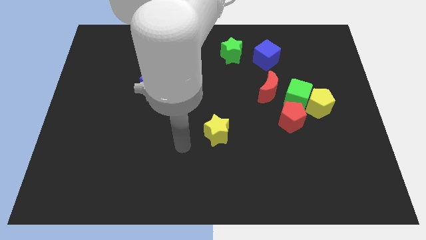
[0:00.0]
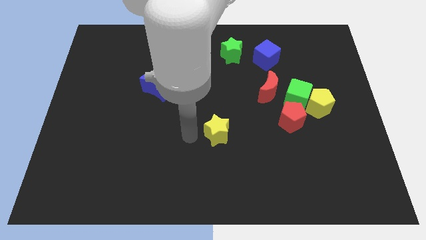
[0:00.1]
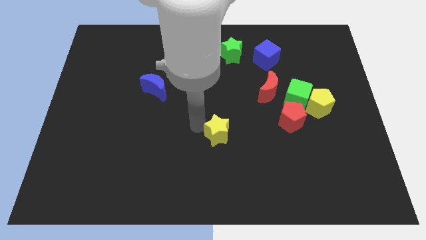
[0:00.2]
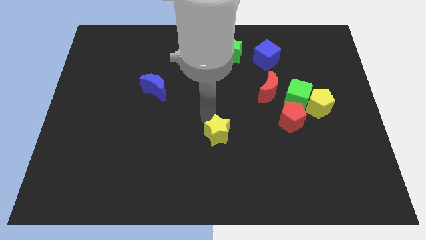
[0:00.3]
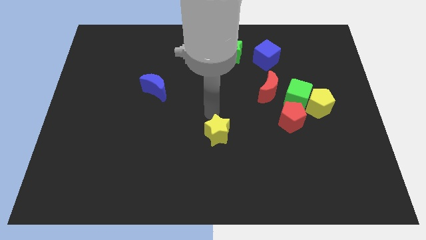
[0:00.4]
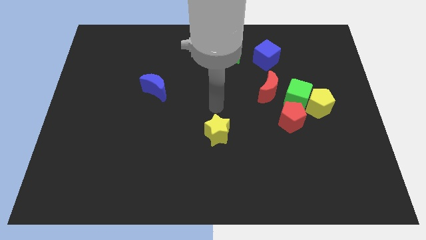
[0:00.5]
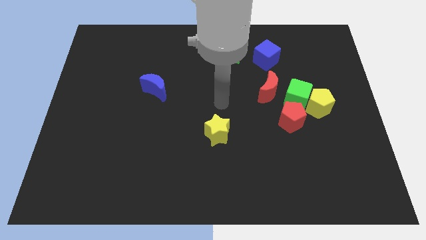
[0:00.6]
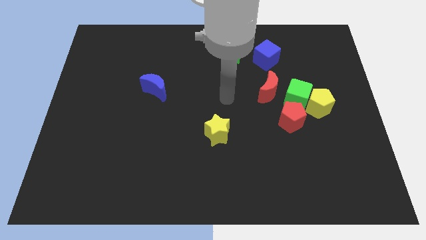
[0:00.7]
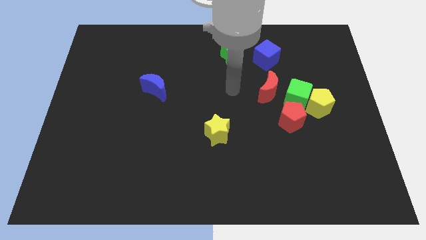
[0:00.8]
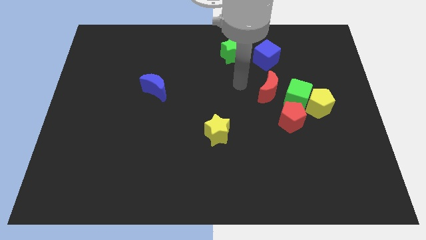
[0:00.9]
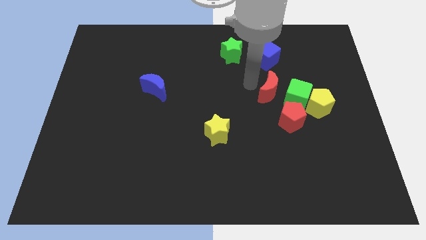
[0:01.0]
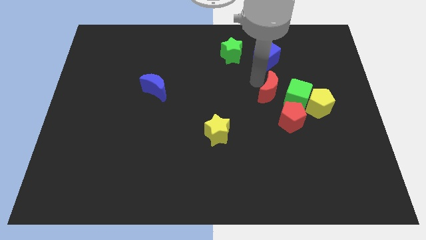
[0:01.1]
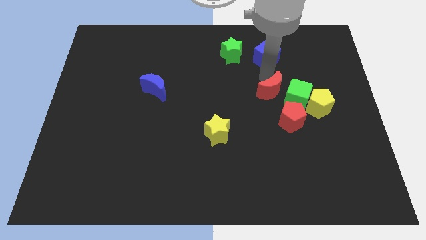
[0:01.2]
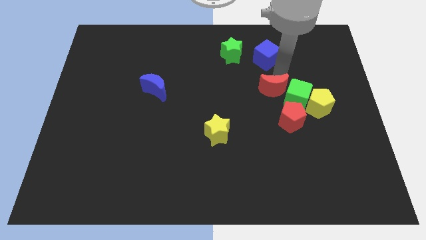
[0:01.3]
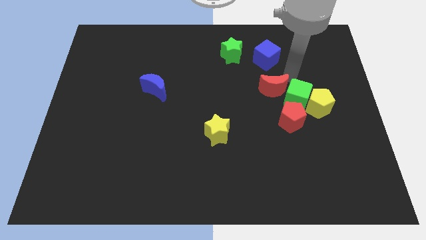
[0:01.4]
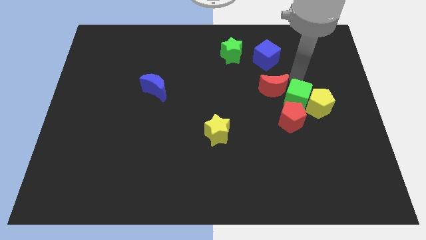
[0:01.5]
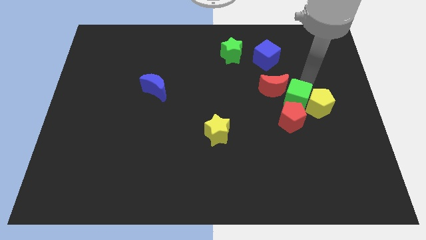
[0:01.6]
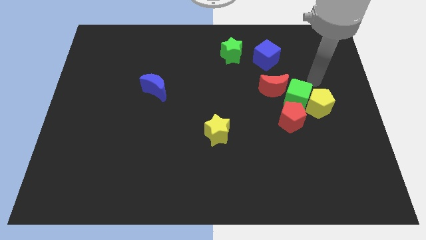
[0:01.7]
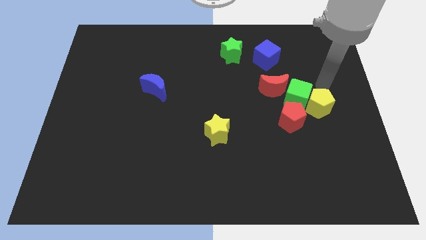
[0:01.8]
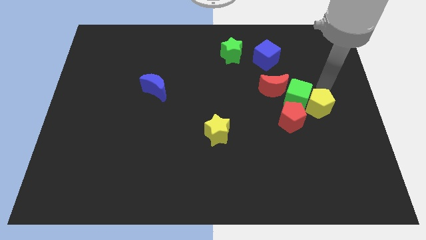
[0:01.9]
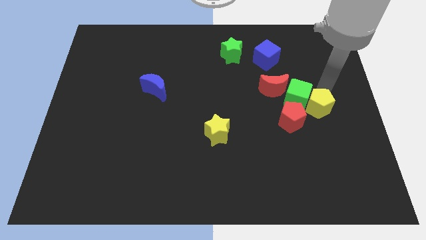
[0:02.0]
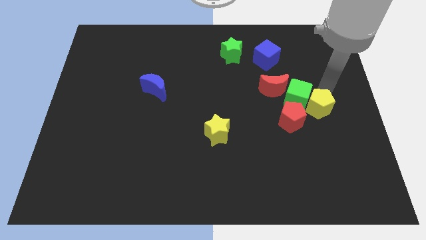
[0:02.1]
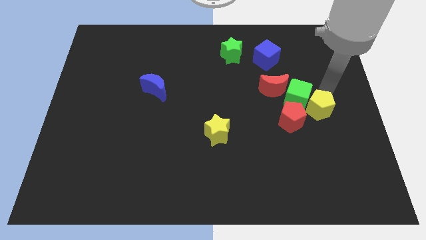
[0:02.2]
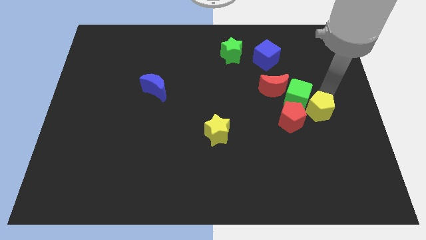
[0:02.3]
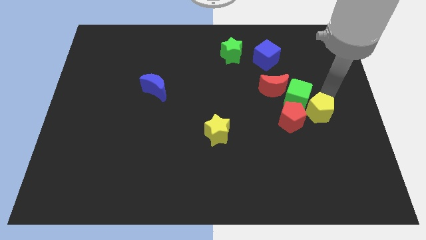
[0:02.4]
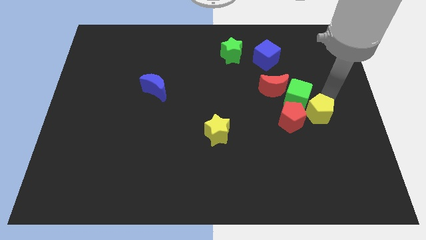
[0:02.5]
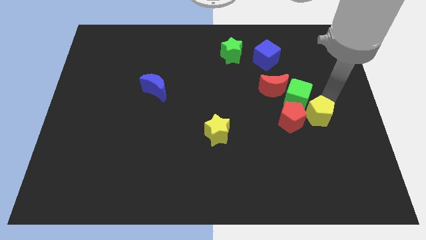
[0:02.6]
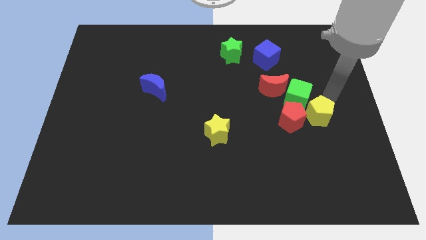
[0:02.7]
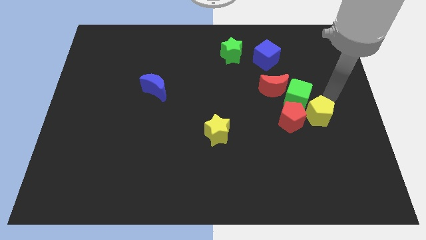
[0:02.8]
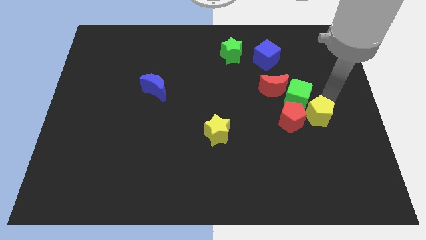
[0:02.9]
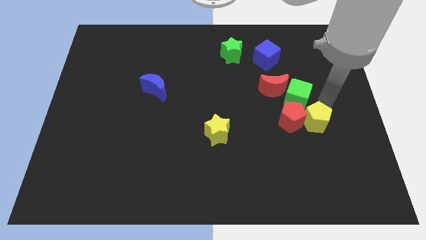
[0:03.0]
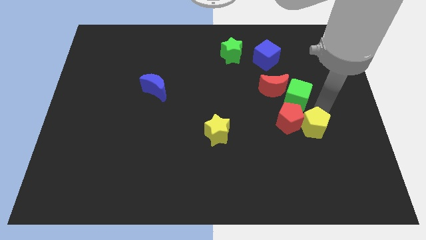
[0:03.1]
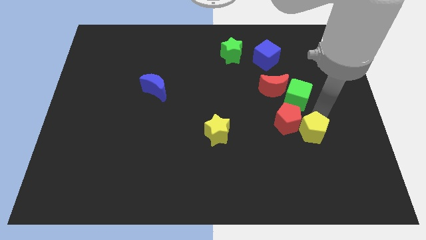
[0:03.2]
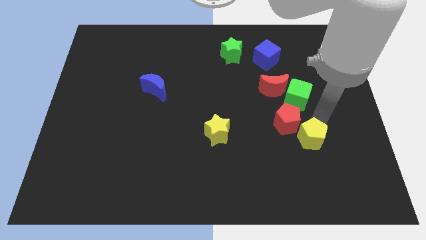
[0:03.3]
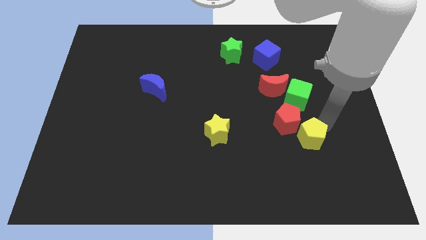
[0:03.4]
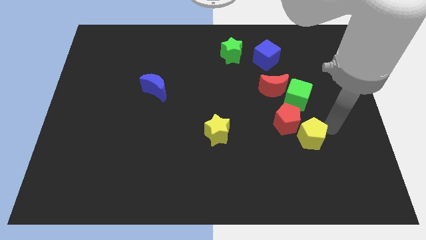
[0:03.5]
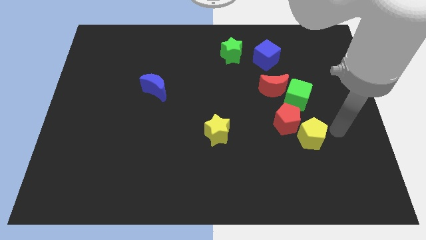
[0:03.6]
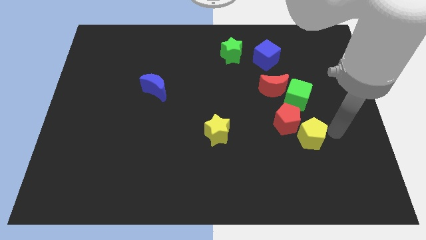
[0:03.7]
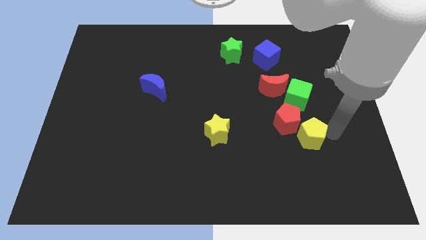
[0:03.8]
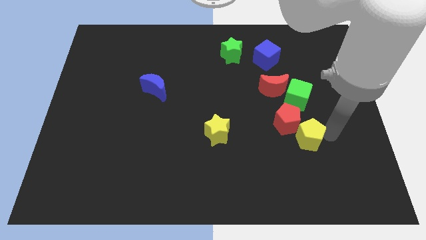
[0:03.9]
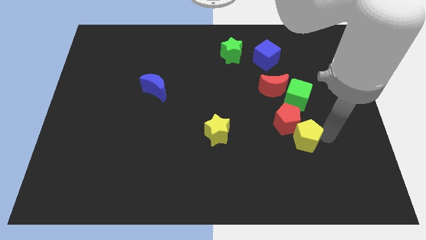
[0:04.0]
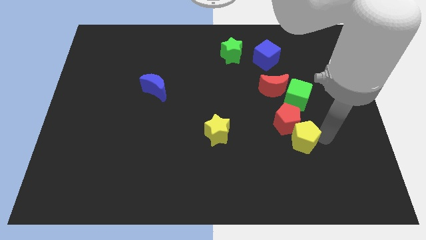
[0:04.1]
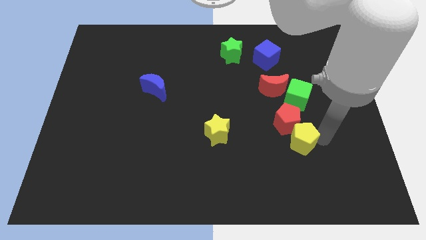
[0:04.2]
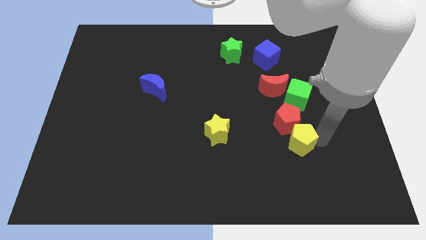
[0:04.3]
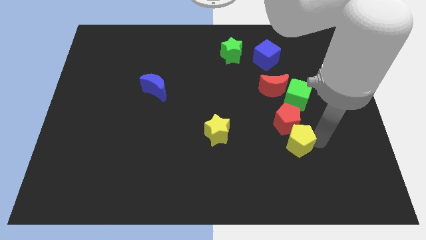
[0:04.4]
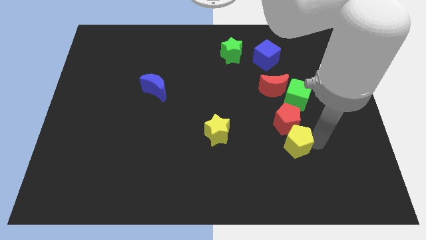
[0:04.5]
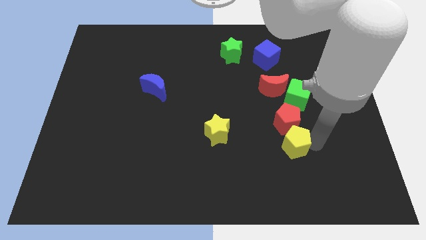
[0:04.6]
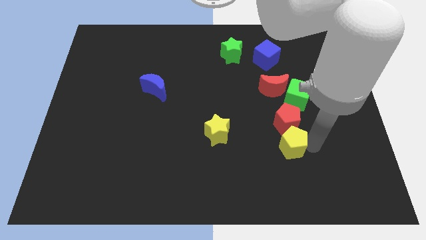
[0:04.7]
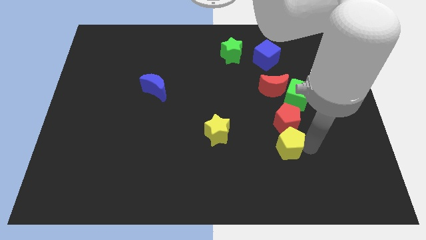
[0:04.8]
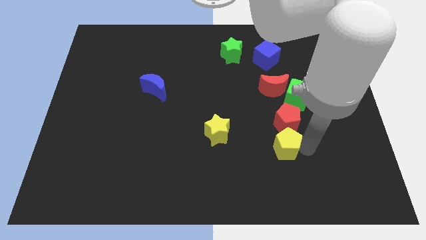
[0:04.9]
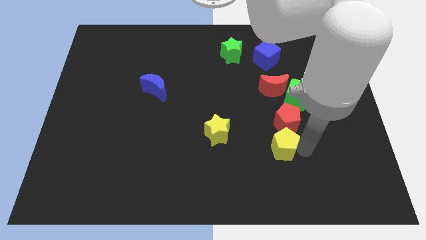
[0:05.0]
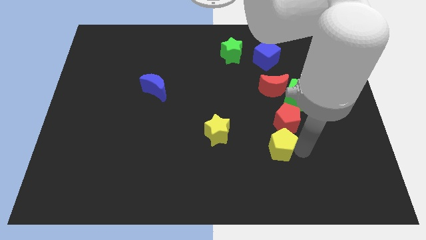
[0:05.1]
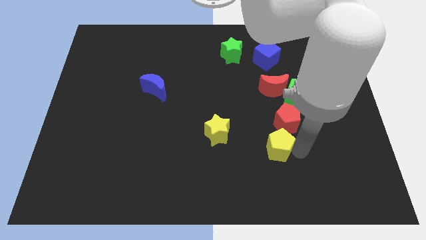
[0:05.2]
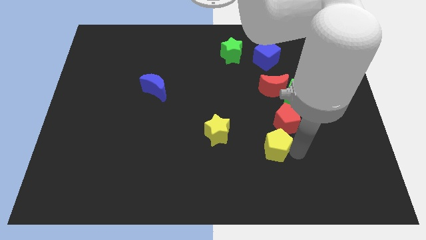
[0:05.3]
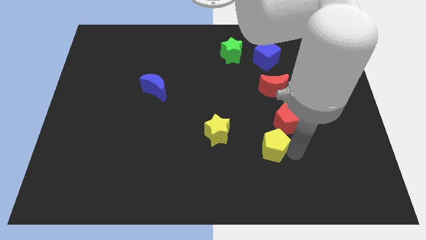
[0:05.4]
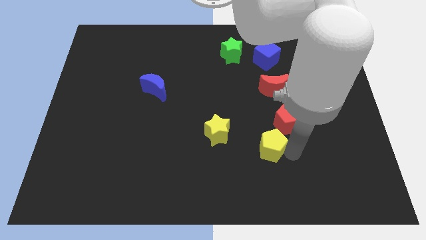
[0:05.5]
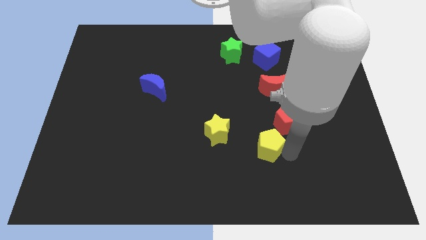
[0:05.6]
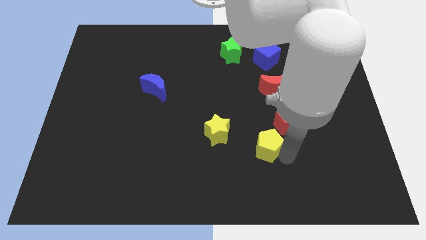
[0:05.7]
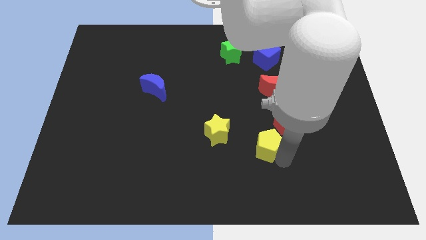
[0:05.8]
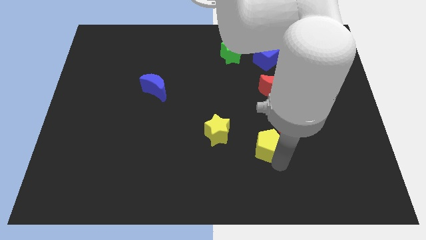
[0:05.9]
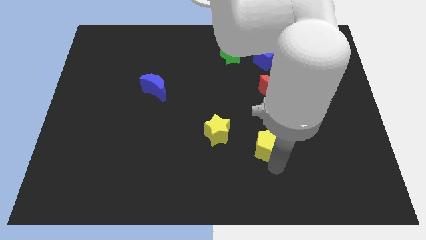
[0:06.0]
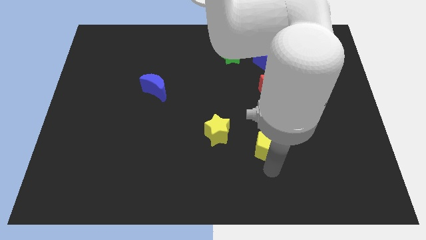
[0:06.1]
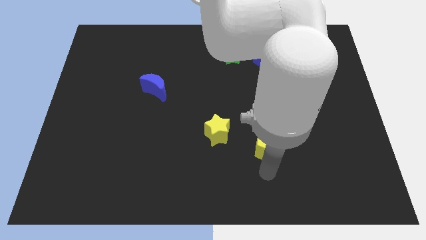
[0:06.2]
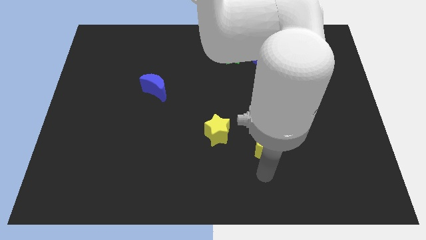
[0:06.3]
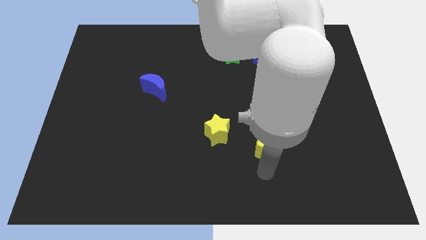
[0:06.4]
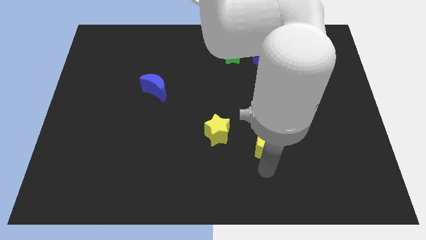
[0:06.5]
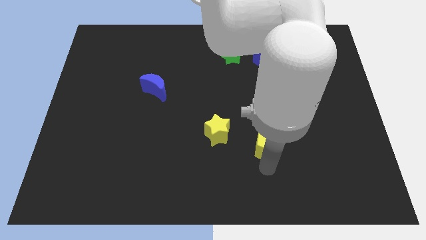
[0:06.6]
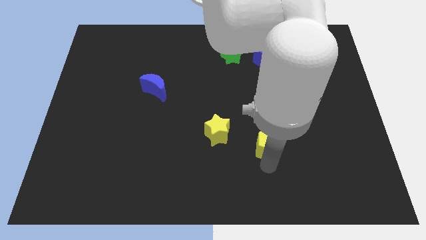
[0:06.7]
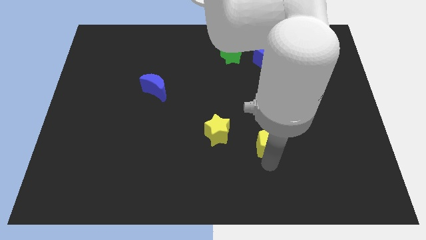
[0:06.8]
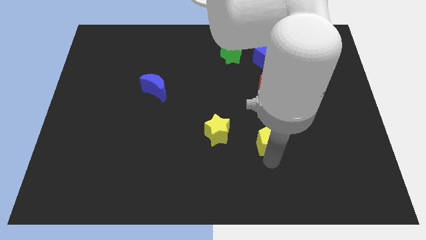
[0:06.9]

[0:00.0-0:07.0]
push the yellow pentagon a little to the left

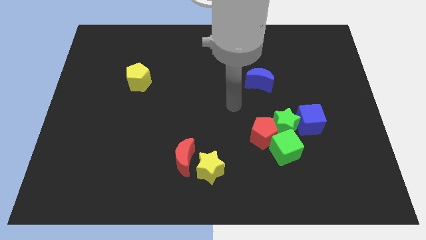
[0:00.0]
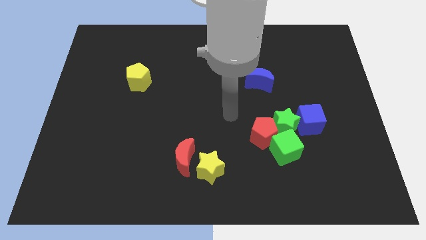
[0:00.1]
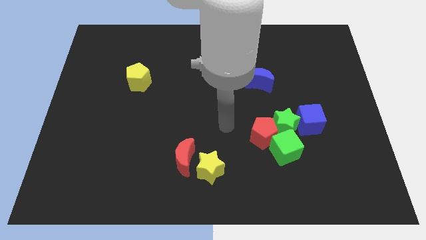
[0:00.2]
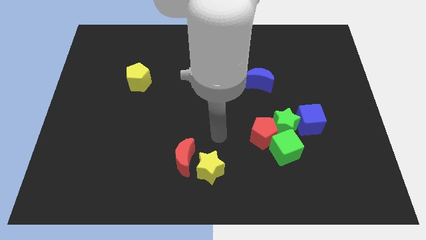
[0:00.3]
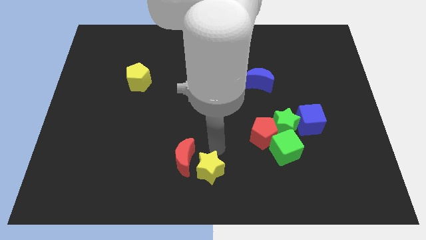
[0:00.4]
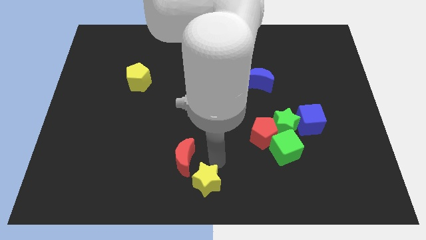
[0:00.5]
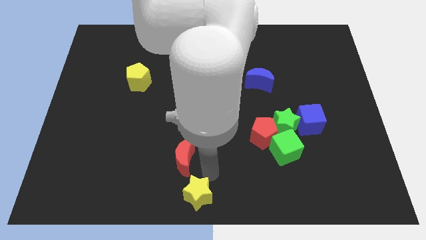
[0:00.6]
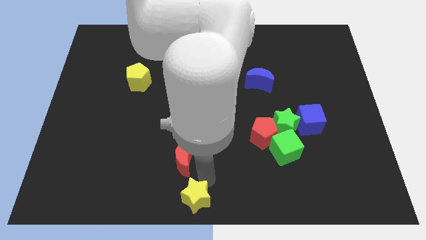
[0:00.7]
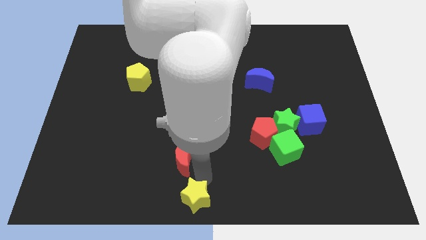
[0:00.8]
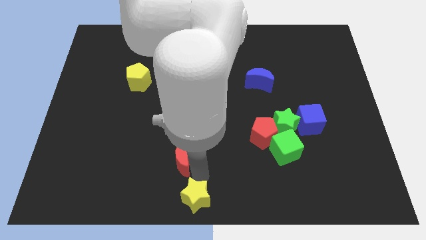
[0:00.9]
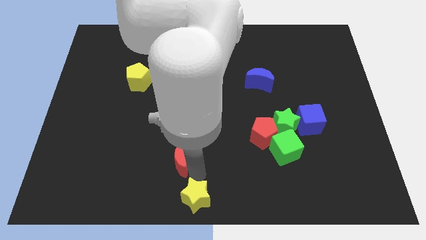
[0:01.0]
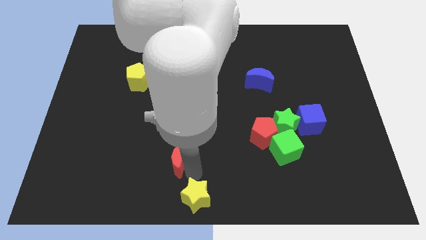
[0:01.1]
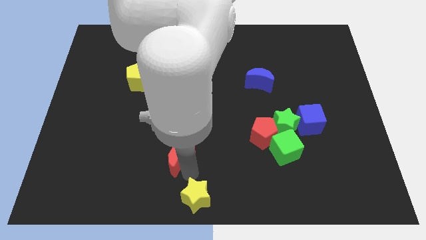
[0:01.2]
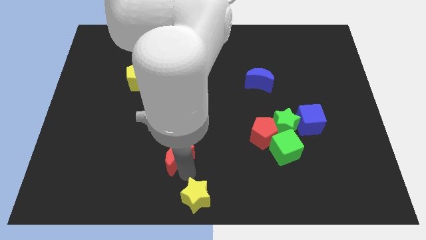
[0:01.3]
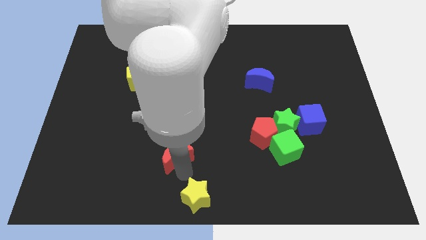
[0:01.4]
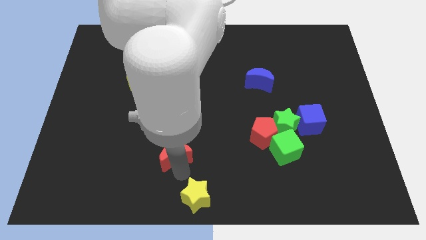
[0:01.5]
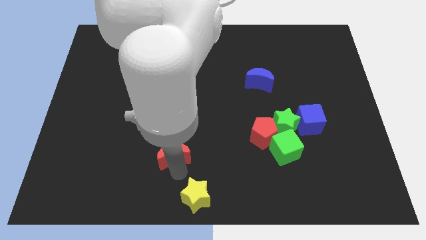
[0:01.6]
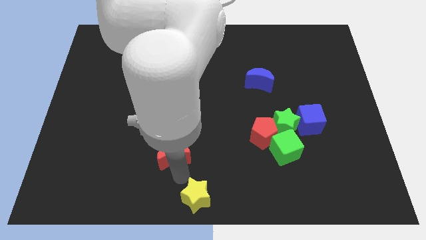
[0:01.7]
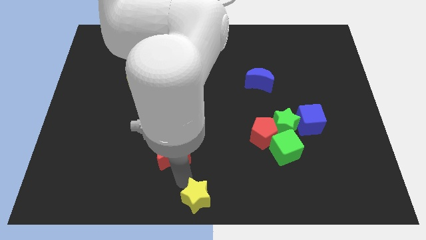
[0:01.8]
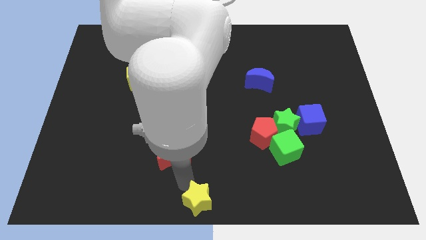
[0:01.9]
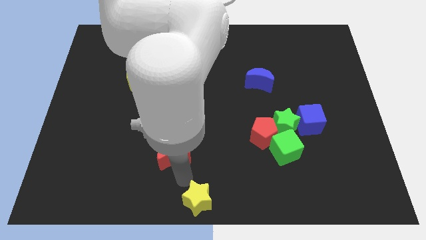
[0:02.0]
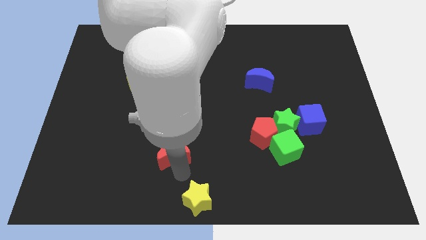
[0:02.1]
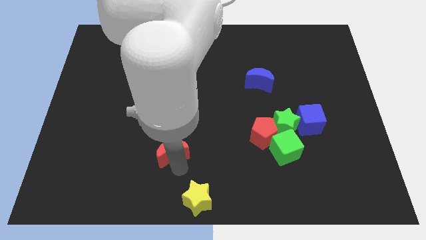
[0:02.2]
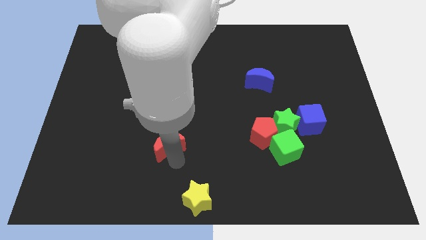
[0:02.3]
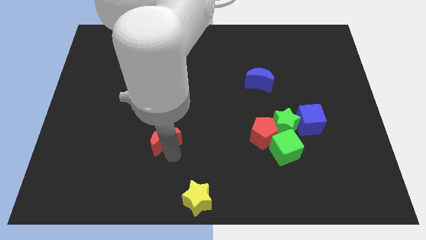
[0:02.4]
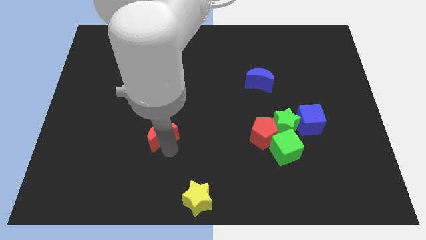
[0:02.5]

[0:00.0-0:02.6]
slightly push the red moon diagonally upwards and to the left
